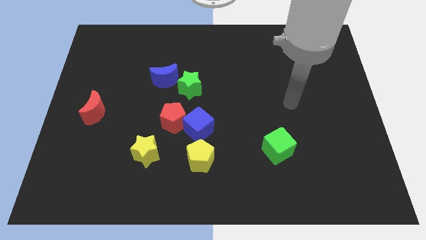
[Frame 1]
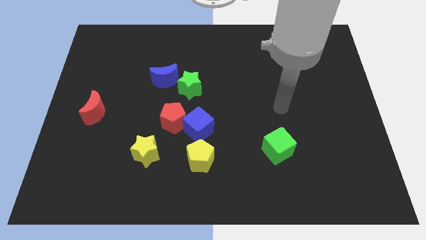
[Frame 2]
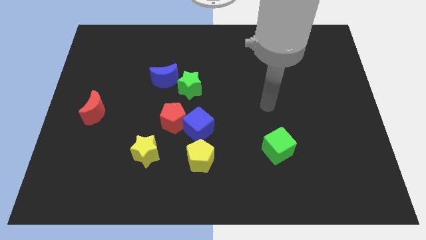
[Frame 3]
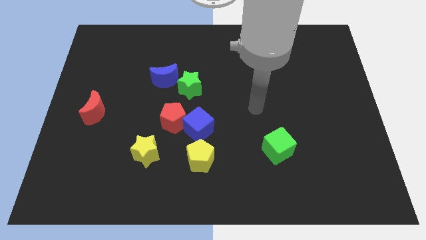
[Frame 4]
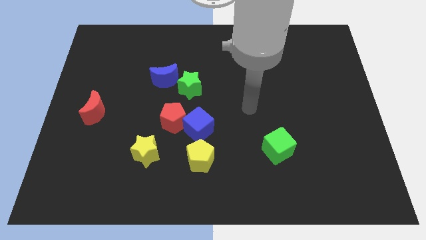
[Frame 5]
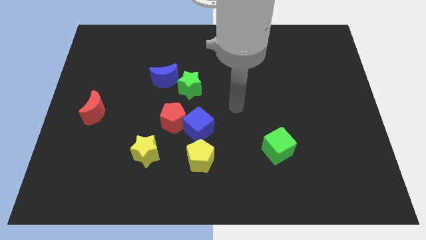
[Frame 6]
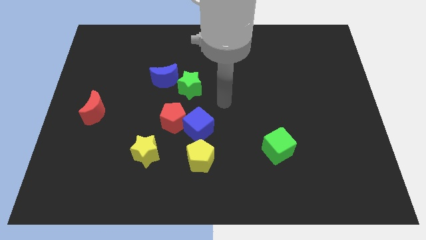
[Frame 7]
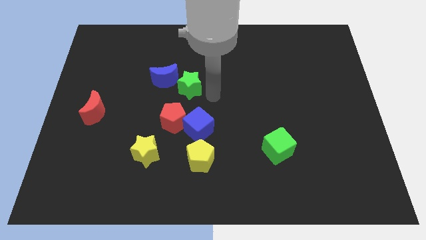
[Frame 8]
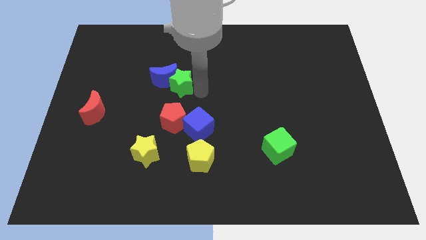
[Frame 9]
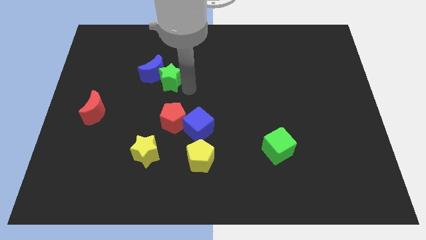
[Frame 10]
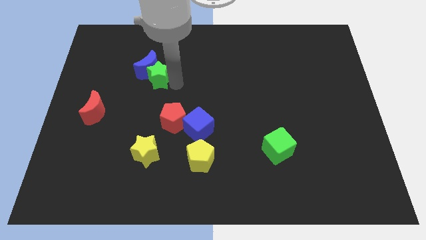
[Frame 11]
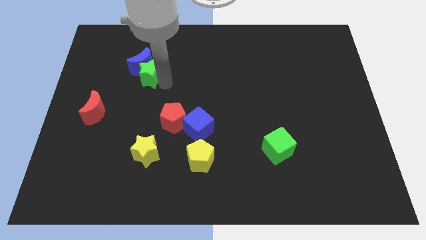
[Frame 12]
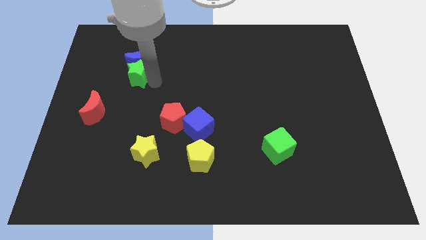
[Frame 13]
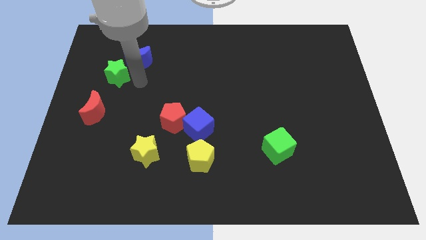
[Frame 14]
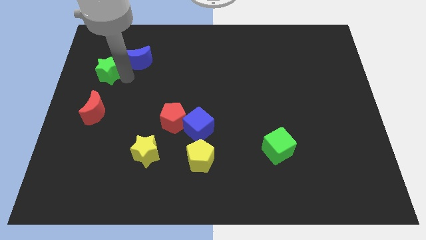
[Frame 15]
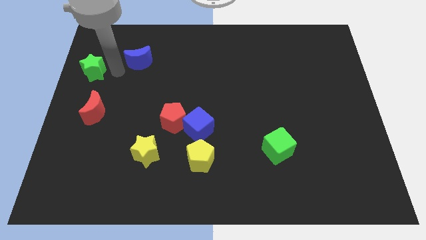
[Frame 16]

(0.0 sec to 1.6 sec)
separate the blue moon from the green star

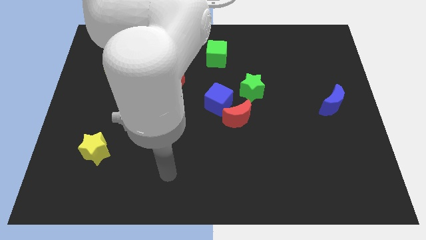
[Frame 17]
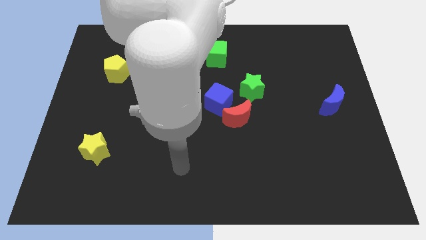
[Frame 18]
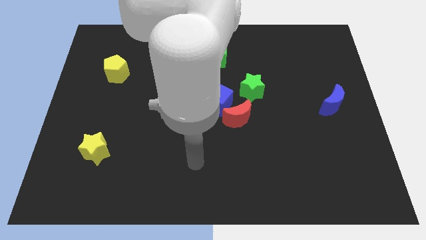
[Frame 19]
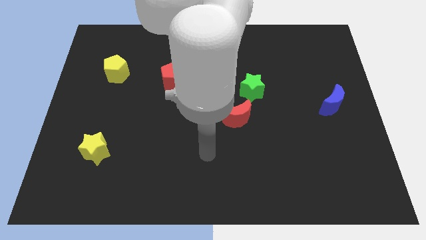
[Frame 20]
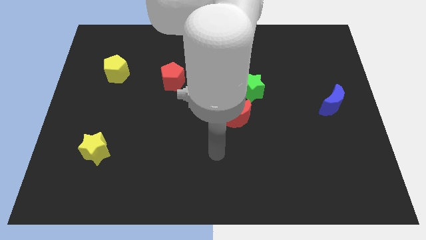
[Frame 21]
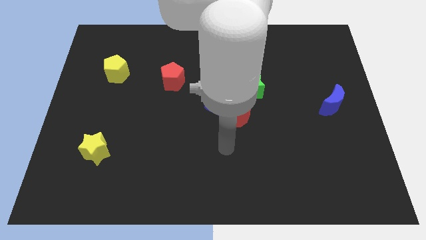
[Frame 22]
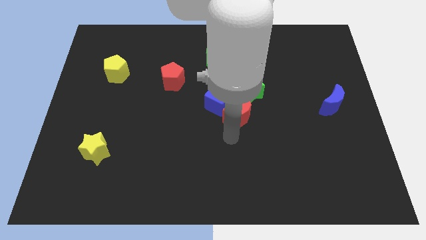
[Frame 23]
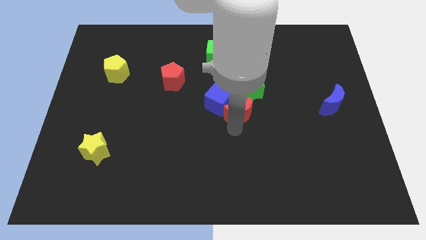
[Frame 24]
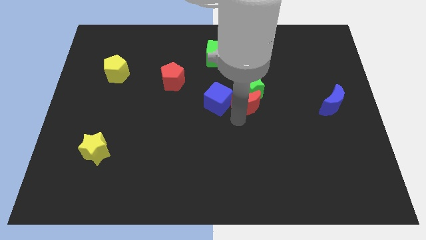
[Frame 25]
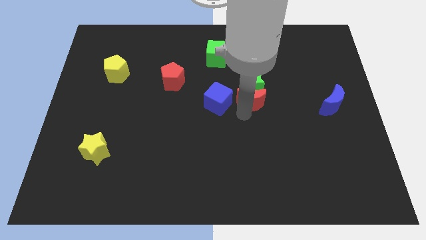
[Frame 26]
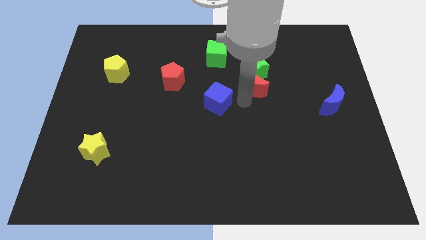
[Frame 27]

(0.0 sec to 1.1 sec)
separate the blue cube from the red moon and green star

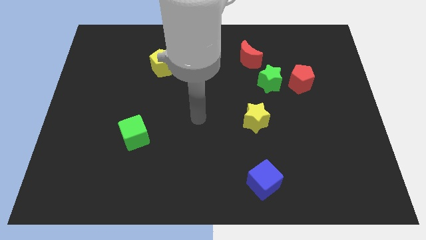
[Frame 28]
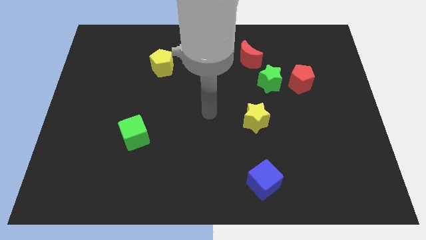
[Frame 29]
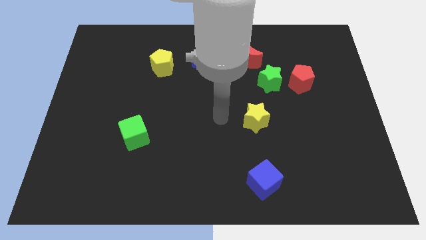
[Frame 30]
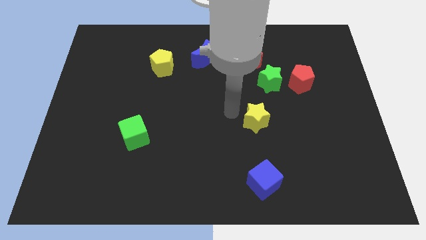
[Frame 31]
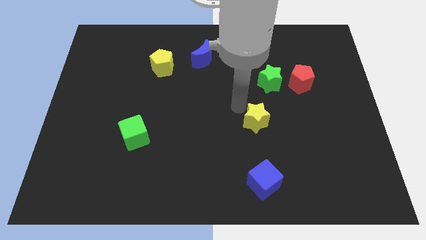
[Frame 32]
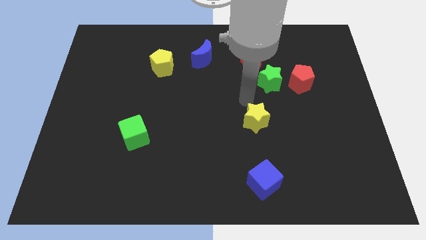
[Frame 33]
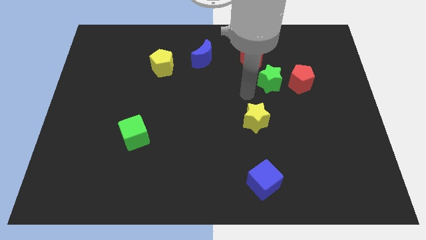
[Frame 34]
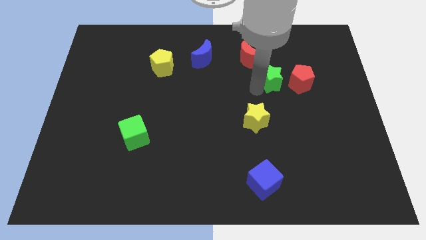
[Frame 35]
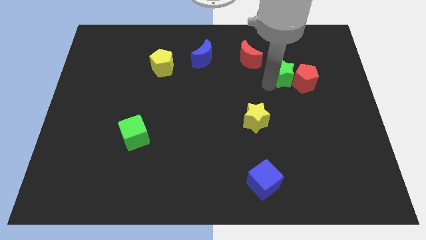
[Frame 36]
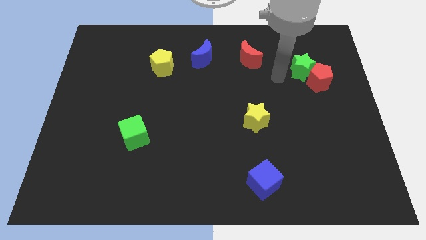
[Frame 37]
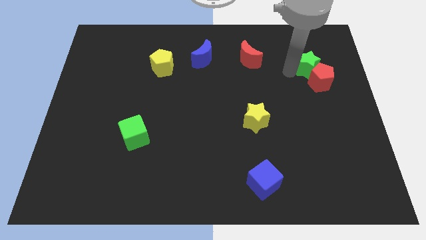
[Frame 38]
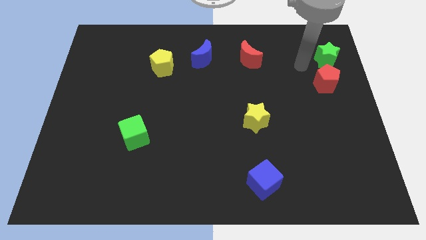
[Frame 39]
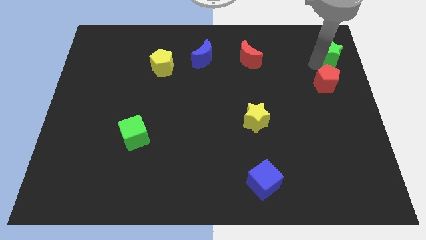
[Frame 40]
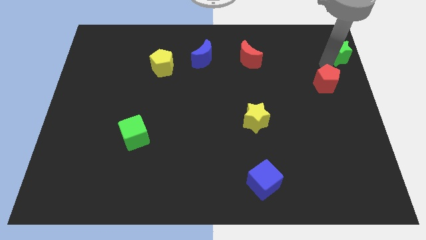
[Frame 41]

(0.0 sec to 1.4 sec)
move the red pentagon away from the green star

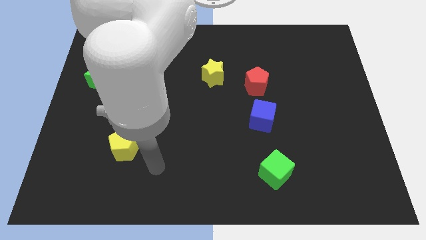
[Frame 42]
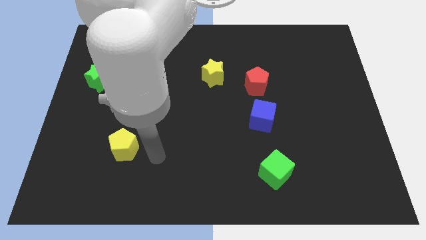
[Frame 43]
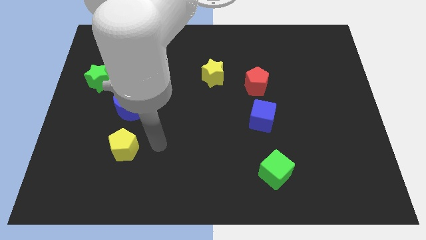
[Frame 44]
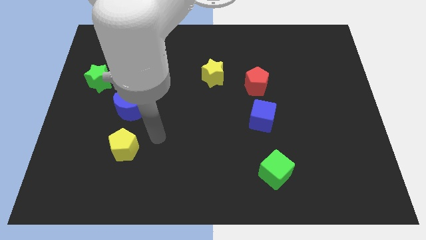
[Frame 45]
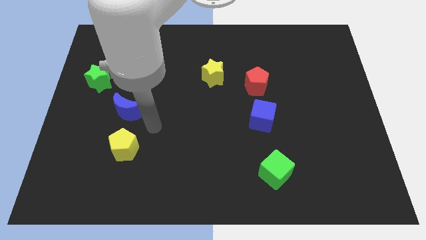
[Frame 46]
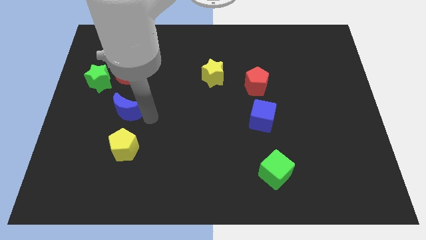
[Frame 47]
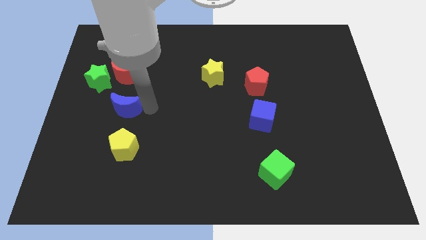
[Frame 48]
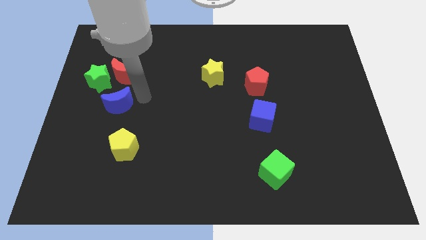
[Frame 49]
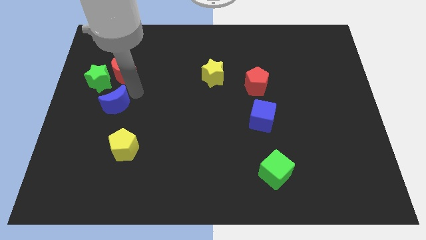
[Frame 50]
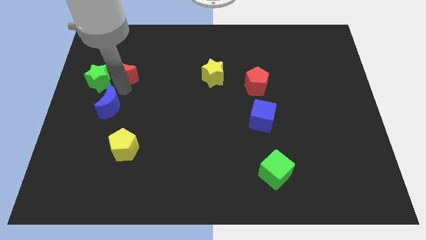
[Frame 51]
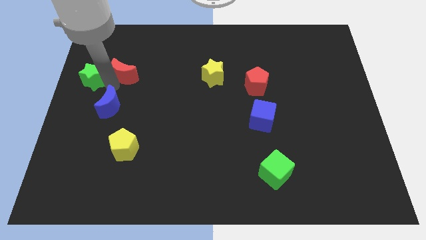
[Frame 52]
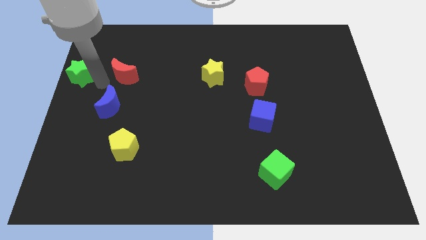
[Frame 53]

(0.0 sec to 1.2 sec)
pull the red moon apart from the green star

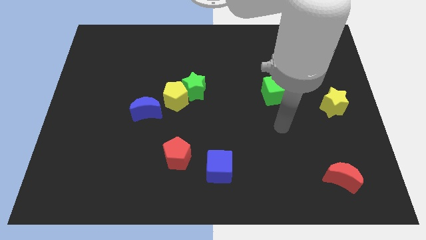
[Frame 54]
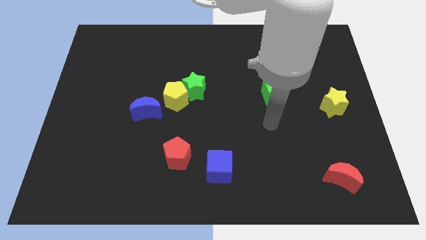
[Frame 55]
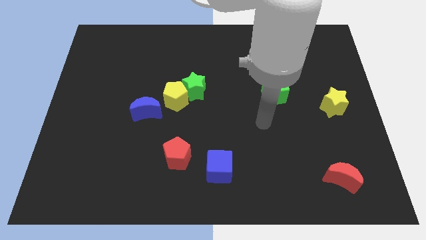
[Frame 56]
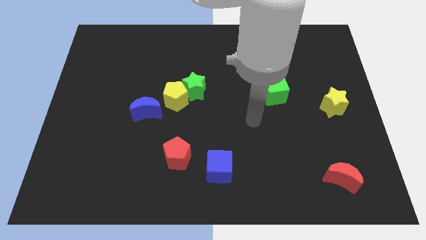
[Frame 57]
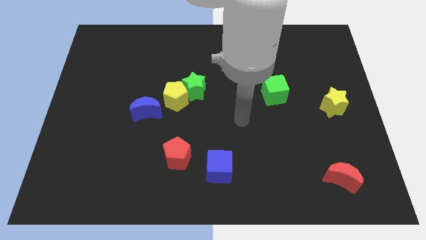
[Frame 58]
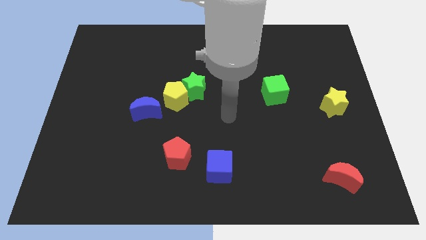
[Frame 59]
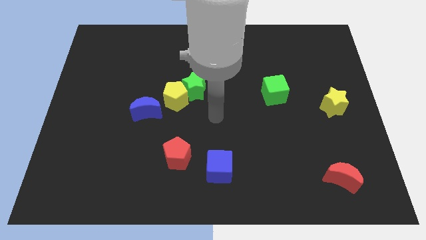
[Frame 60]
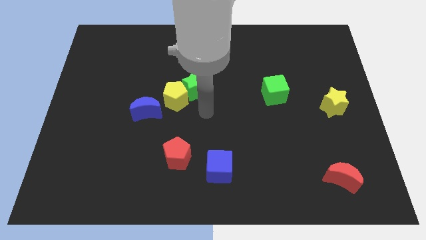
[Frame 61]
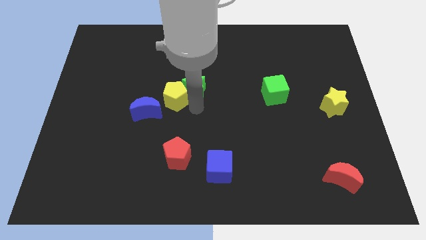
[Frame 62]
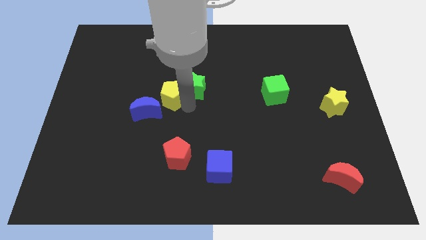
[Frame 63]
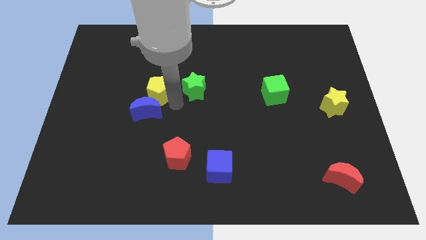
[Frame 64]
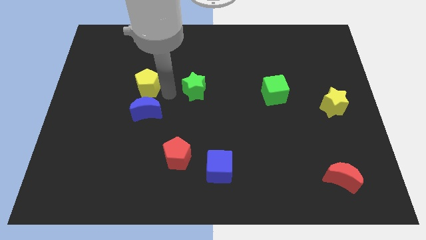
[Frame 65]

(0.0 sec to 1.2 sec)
pull the green star apart from the yellow pentagon

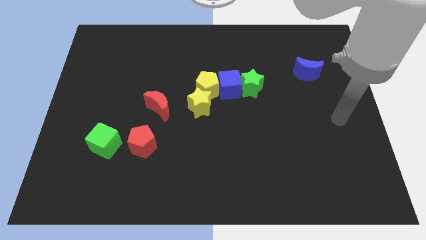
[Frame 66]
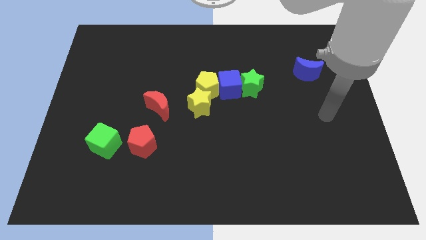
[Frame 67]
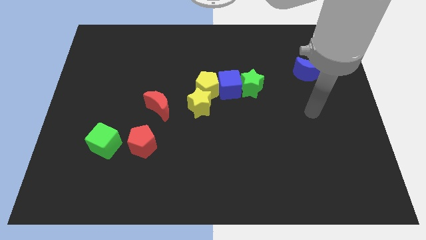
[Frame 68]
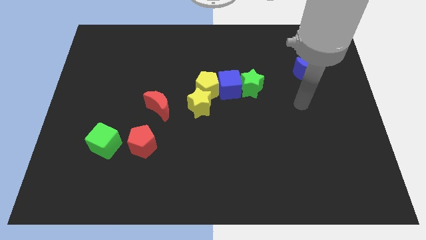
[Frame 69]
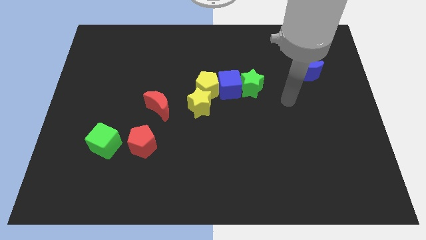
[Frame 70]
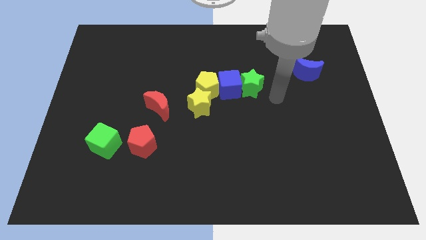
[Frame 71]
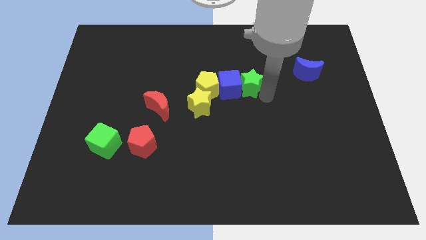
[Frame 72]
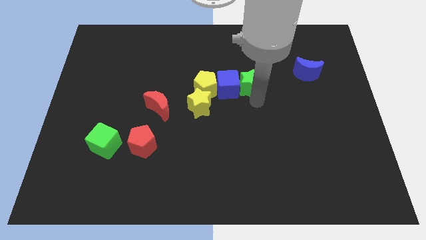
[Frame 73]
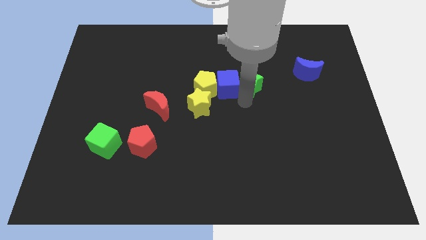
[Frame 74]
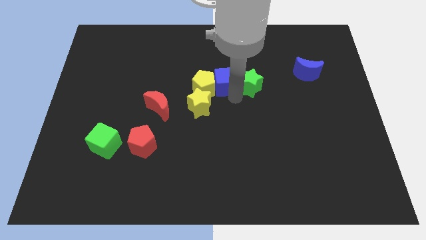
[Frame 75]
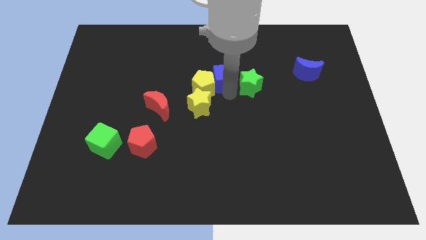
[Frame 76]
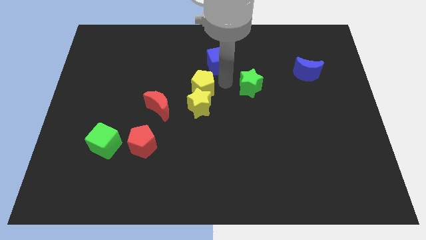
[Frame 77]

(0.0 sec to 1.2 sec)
separate the green star from the blue cube

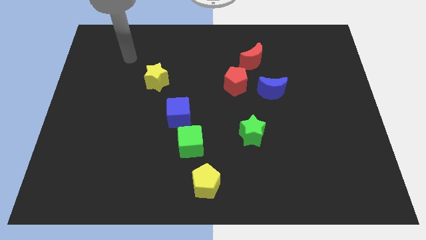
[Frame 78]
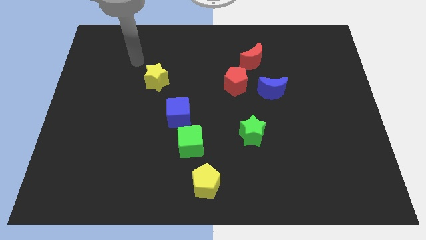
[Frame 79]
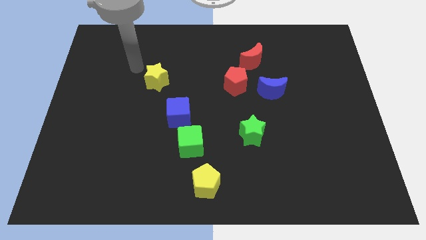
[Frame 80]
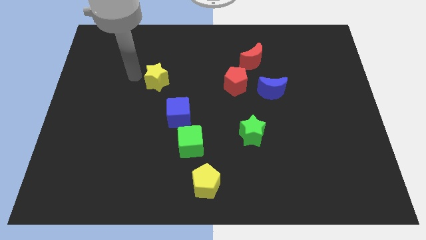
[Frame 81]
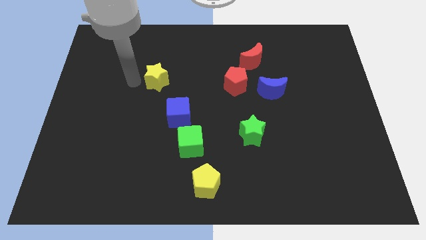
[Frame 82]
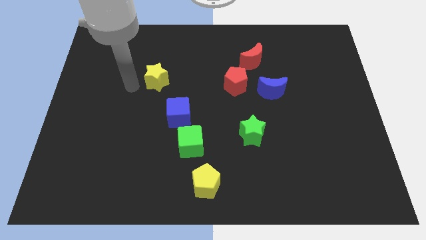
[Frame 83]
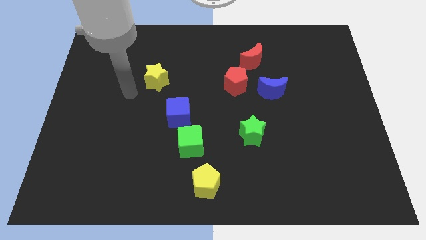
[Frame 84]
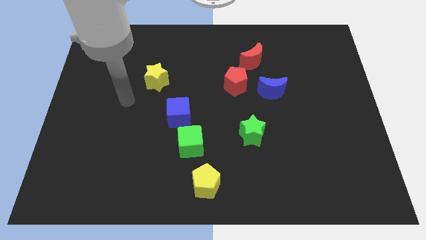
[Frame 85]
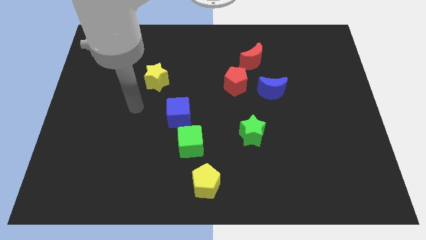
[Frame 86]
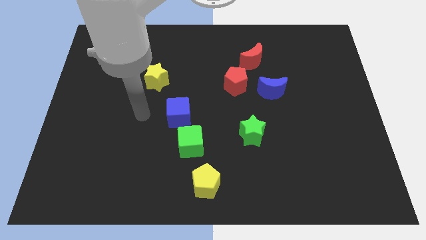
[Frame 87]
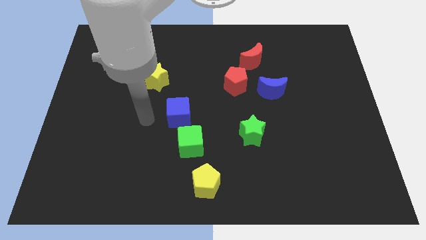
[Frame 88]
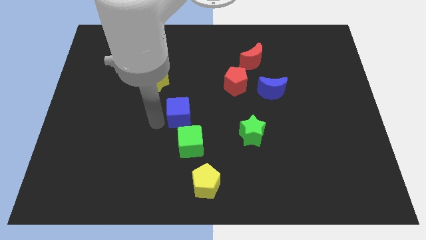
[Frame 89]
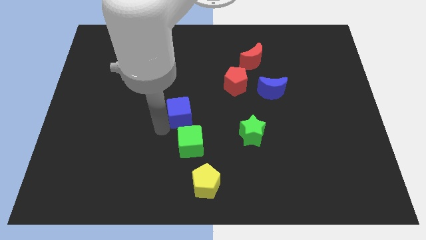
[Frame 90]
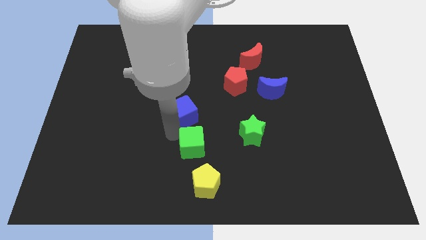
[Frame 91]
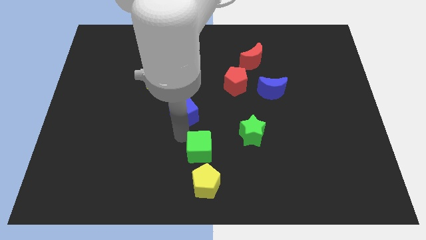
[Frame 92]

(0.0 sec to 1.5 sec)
move the blue cube away from the green cube
